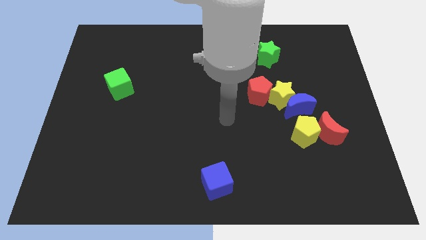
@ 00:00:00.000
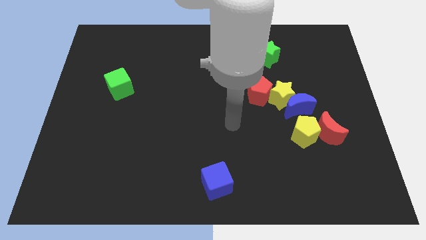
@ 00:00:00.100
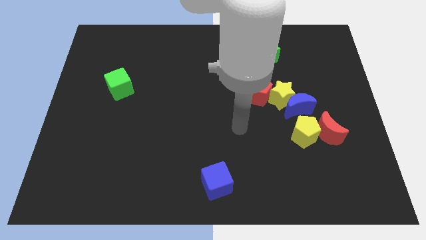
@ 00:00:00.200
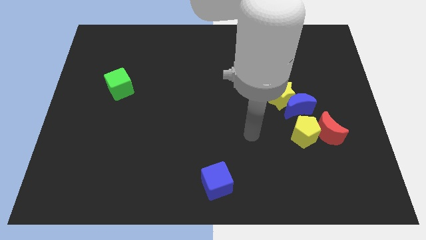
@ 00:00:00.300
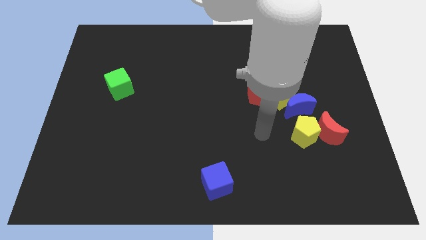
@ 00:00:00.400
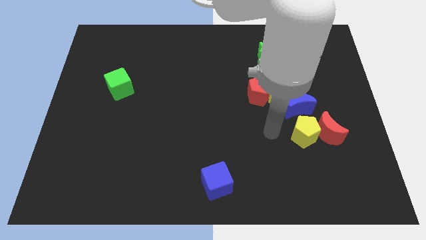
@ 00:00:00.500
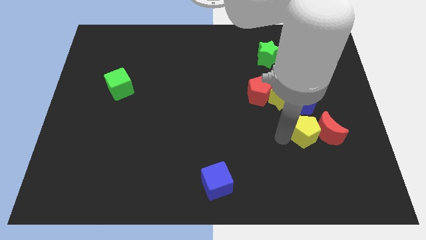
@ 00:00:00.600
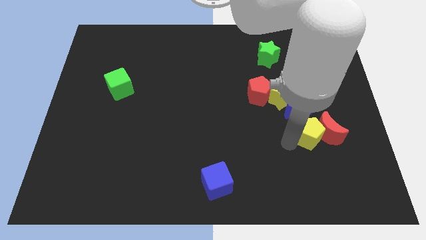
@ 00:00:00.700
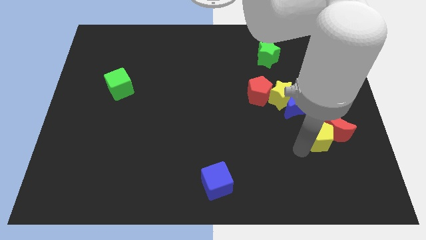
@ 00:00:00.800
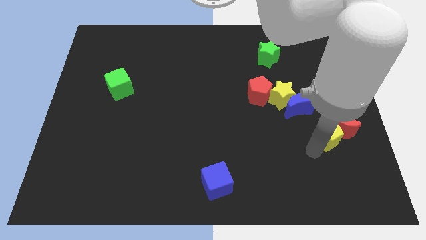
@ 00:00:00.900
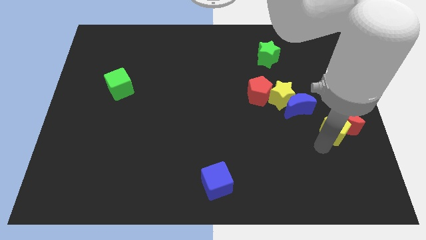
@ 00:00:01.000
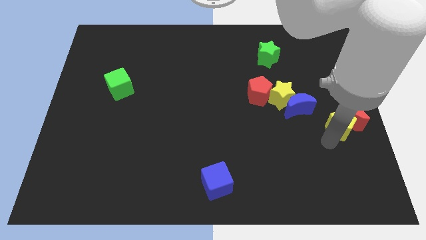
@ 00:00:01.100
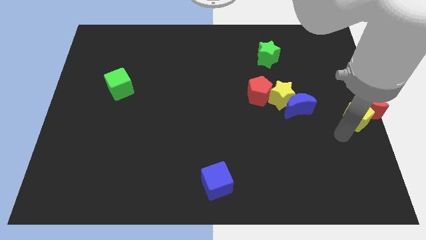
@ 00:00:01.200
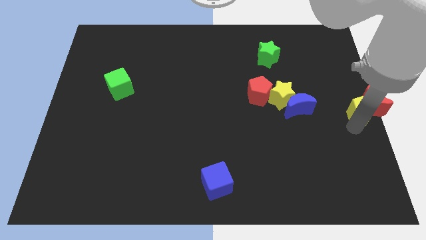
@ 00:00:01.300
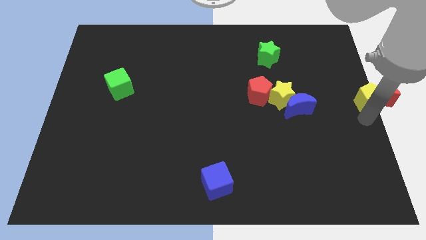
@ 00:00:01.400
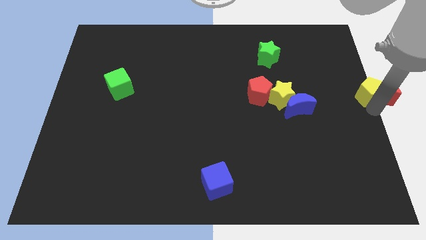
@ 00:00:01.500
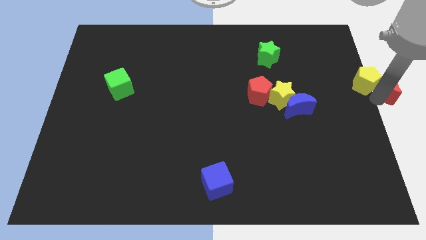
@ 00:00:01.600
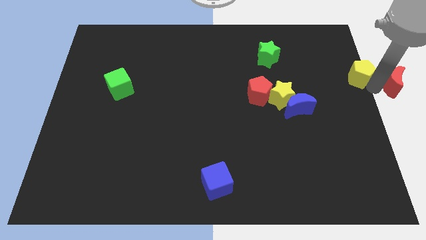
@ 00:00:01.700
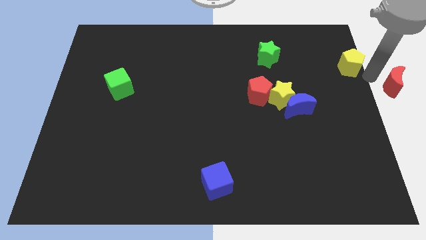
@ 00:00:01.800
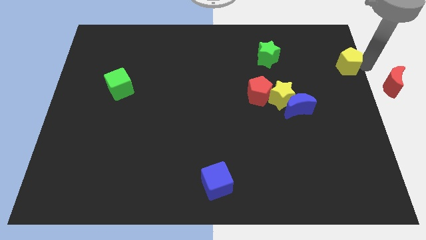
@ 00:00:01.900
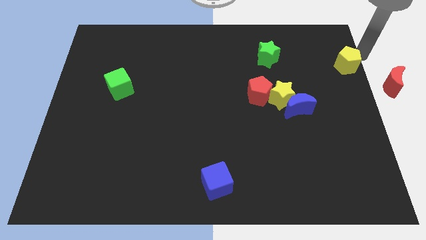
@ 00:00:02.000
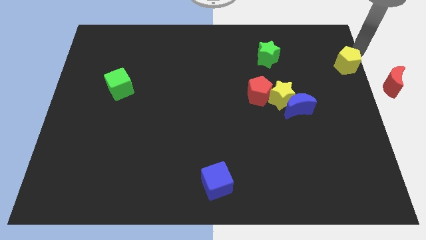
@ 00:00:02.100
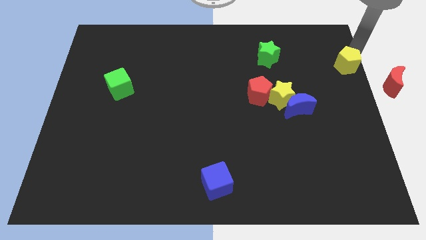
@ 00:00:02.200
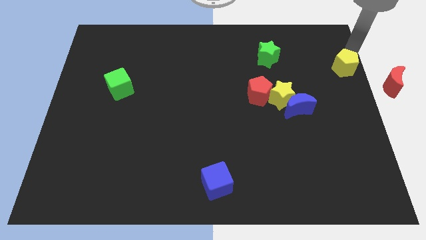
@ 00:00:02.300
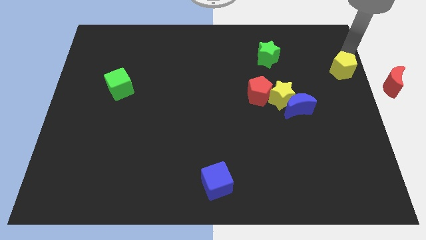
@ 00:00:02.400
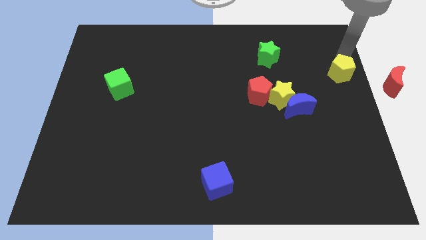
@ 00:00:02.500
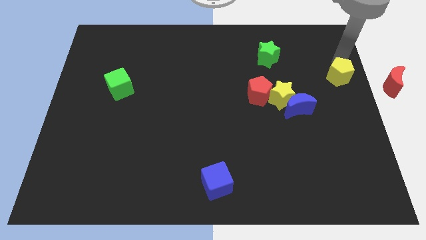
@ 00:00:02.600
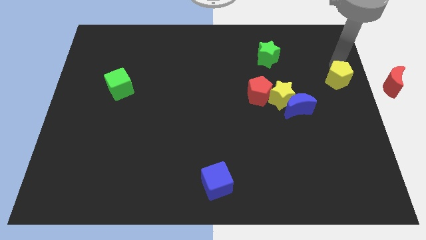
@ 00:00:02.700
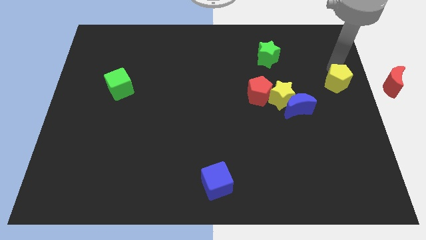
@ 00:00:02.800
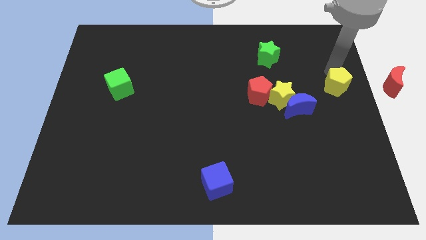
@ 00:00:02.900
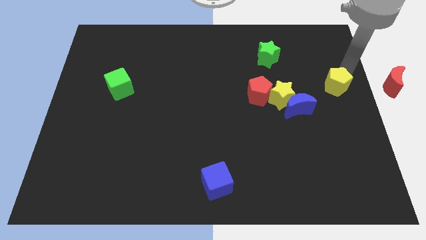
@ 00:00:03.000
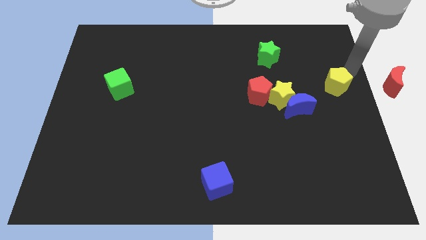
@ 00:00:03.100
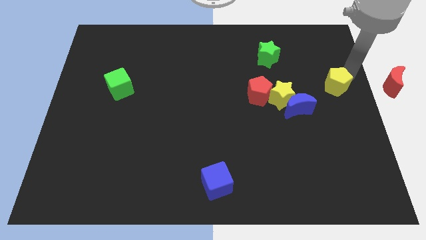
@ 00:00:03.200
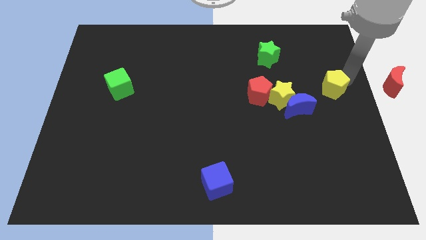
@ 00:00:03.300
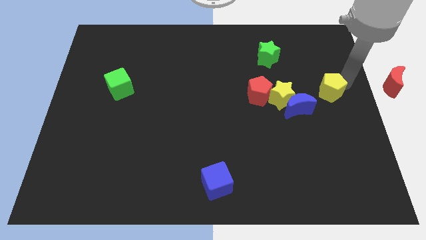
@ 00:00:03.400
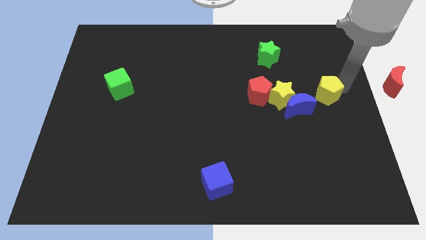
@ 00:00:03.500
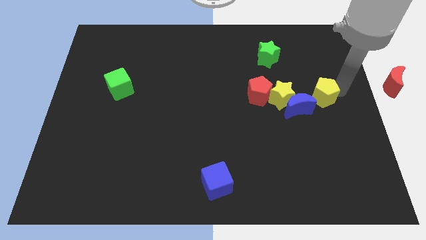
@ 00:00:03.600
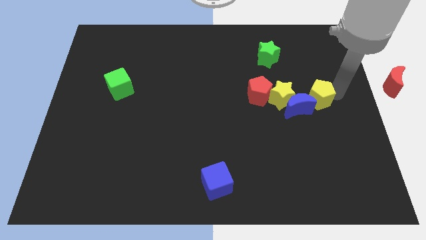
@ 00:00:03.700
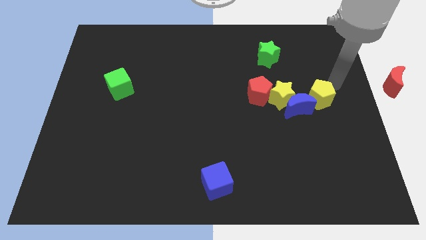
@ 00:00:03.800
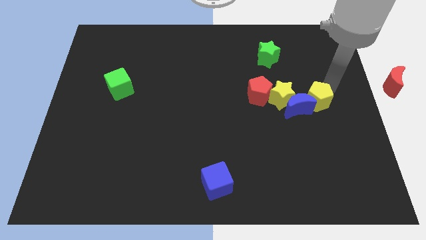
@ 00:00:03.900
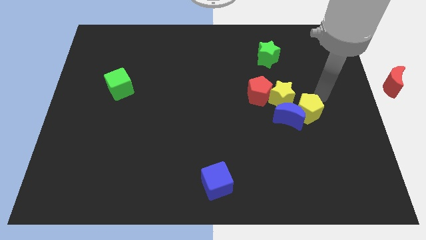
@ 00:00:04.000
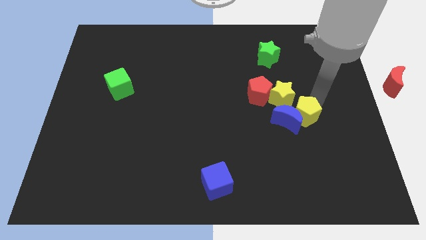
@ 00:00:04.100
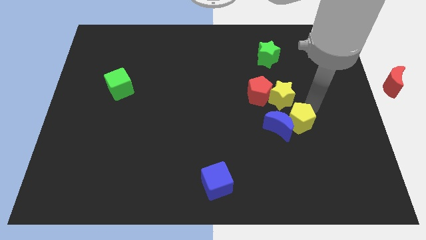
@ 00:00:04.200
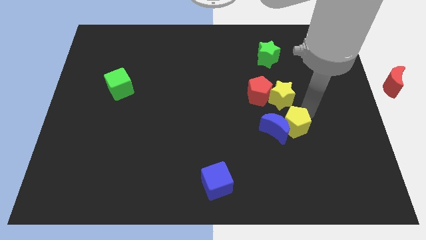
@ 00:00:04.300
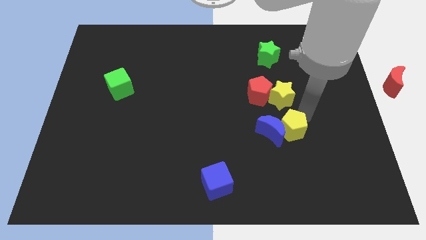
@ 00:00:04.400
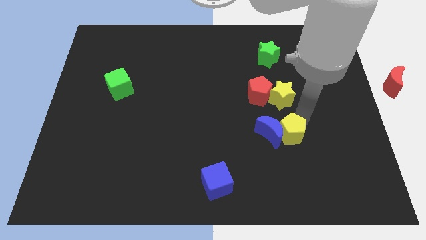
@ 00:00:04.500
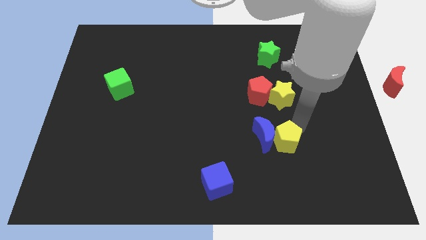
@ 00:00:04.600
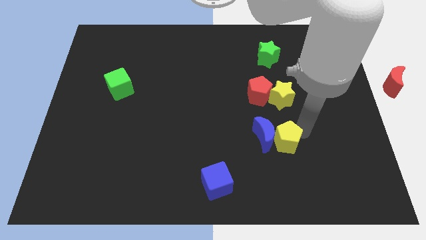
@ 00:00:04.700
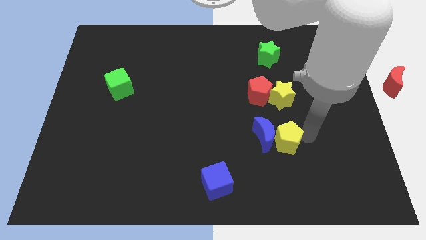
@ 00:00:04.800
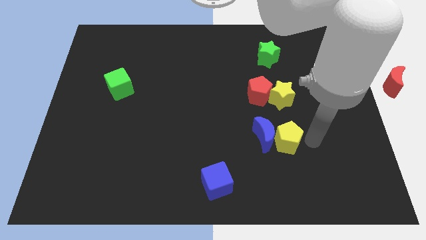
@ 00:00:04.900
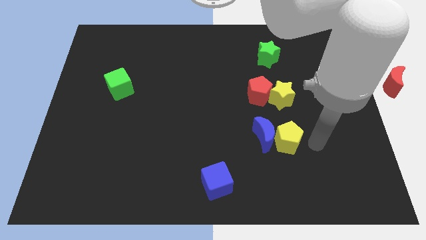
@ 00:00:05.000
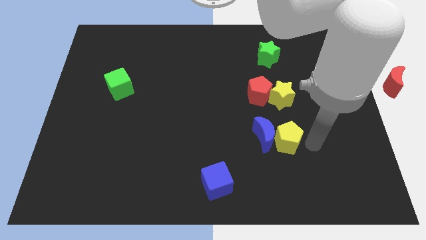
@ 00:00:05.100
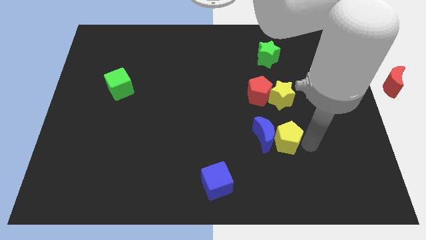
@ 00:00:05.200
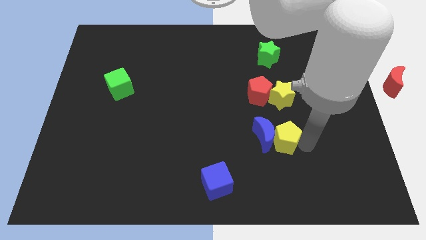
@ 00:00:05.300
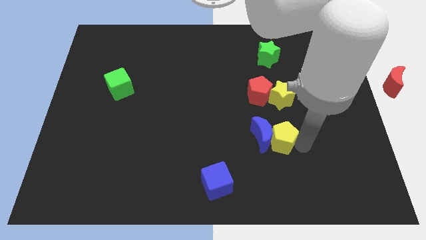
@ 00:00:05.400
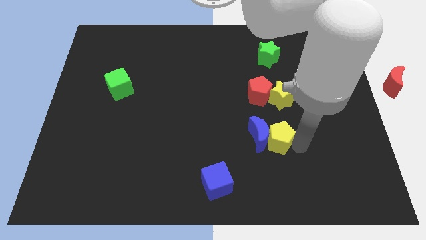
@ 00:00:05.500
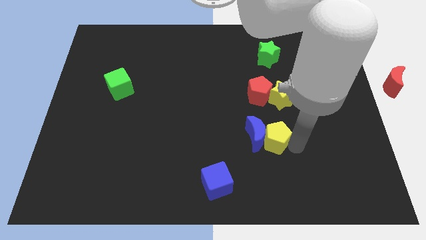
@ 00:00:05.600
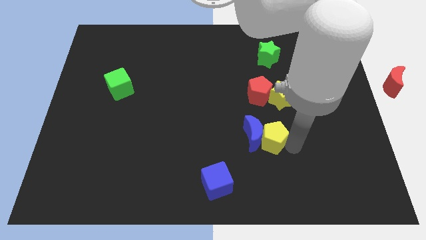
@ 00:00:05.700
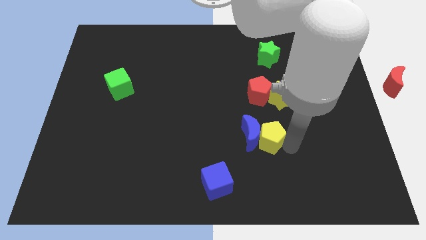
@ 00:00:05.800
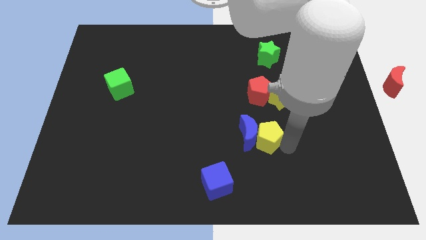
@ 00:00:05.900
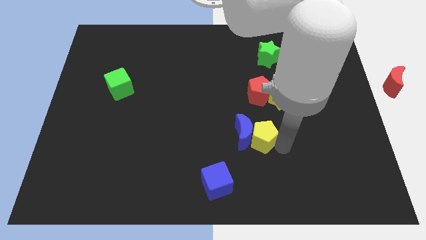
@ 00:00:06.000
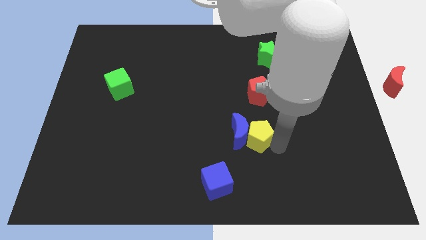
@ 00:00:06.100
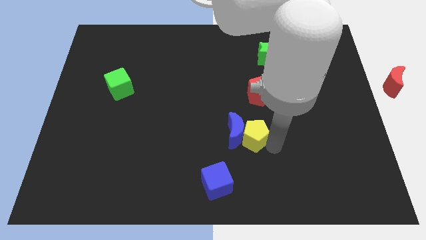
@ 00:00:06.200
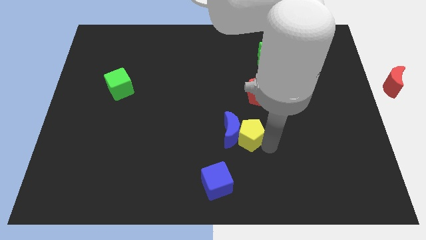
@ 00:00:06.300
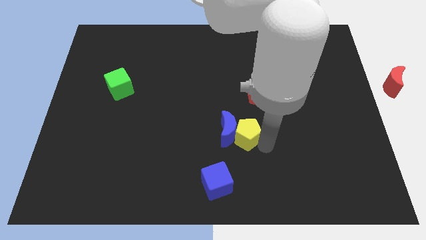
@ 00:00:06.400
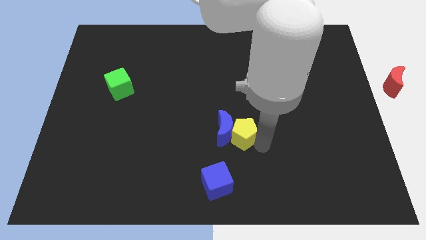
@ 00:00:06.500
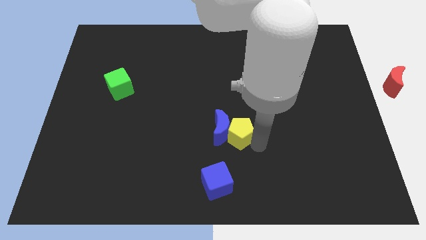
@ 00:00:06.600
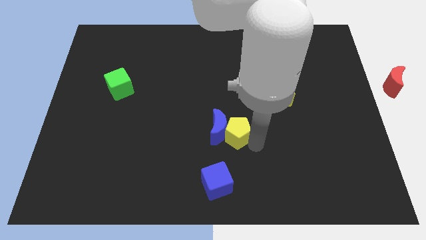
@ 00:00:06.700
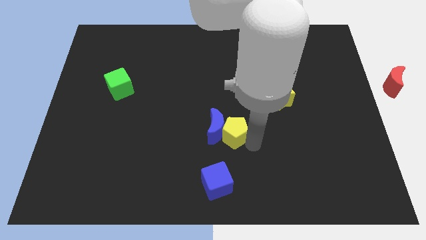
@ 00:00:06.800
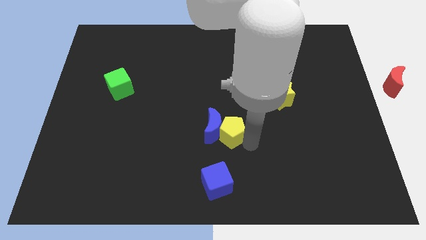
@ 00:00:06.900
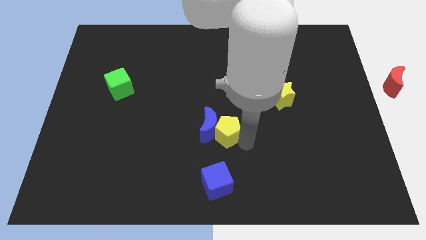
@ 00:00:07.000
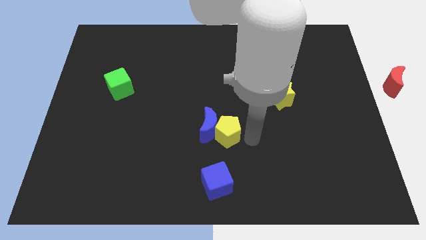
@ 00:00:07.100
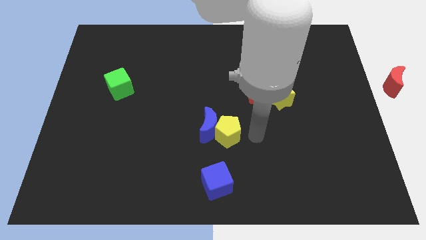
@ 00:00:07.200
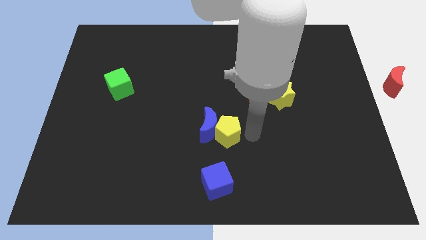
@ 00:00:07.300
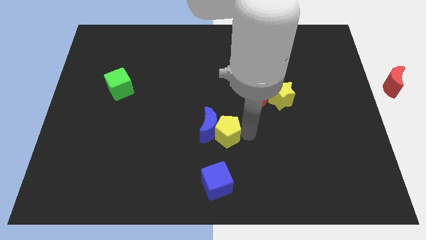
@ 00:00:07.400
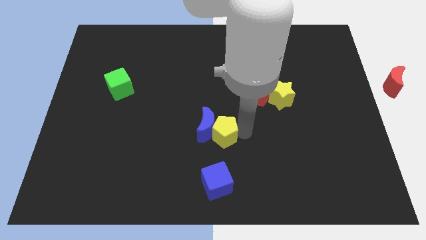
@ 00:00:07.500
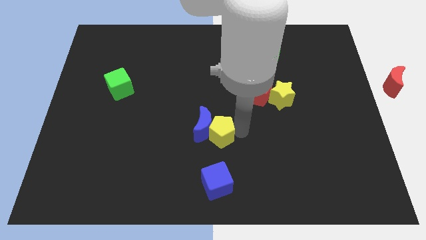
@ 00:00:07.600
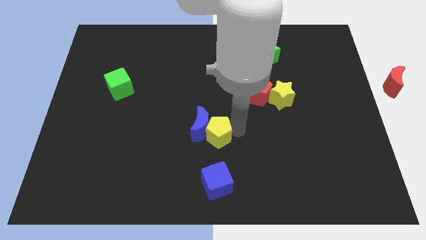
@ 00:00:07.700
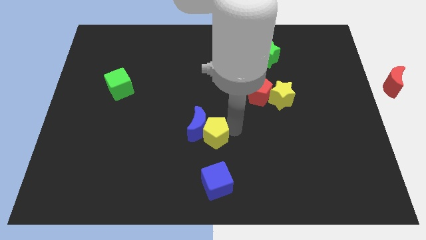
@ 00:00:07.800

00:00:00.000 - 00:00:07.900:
push the yellow pentagon to the left
